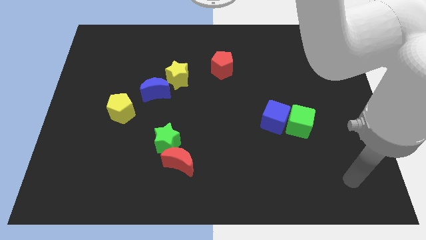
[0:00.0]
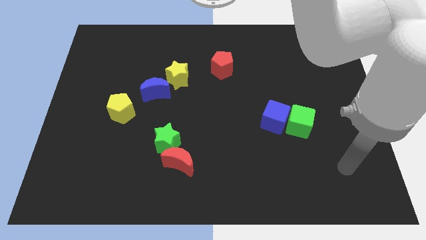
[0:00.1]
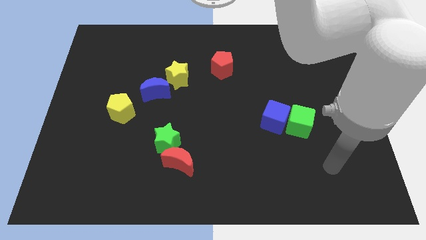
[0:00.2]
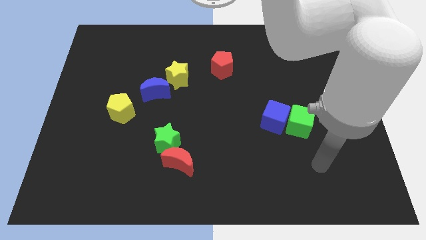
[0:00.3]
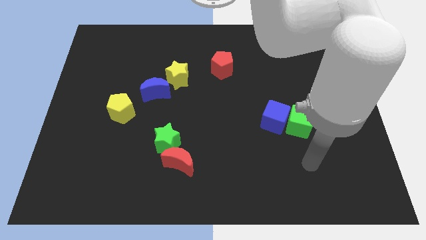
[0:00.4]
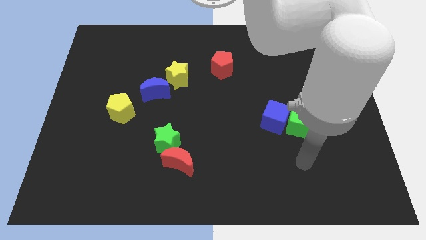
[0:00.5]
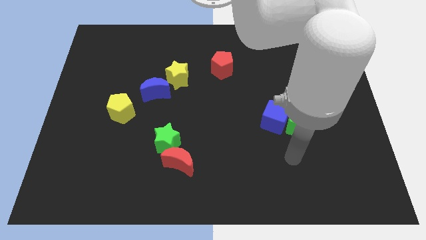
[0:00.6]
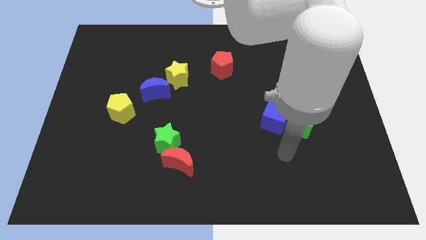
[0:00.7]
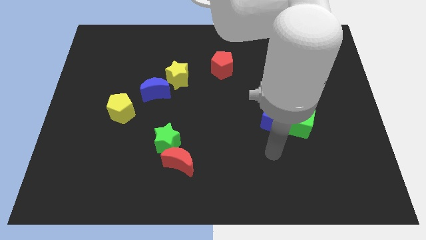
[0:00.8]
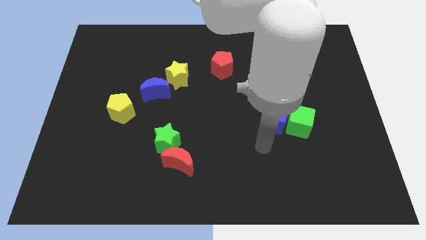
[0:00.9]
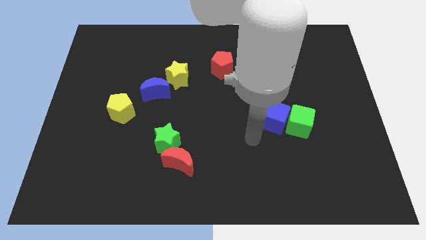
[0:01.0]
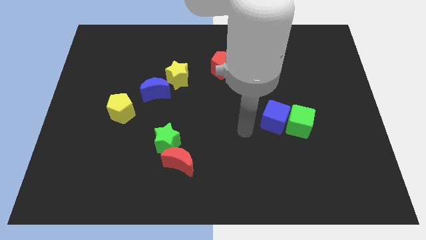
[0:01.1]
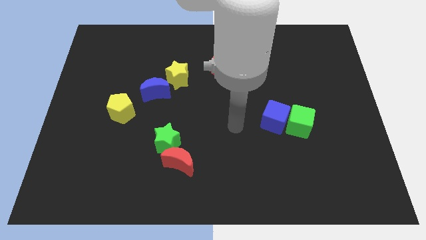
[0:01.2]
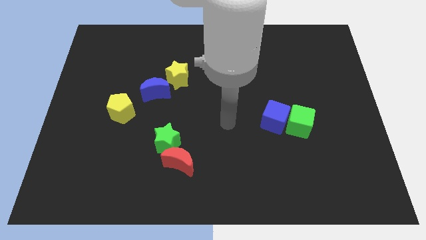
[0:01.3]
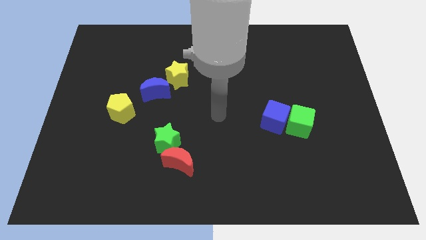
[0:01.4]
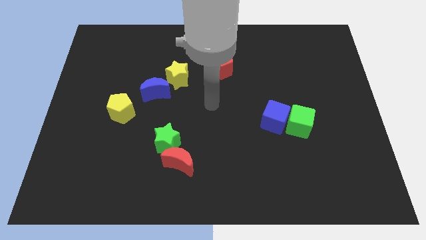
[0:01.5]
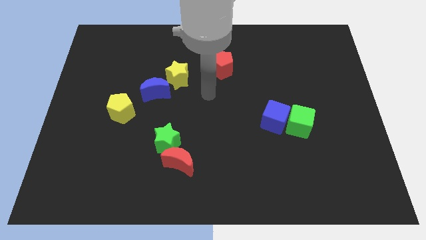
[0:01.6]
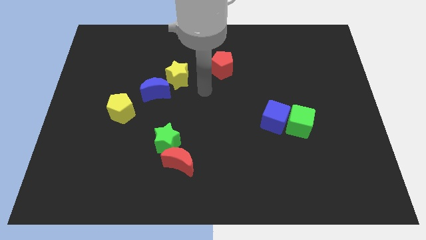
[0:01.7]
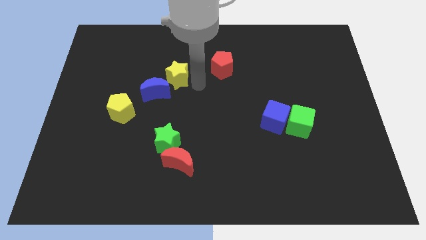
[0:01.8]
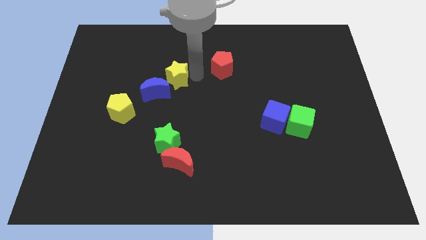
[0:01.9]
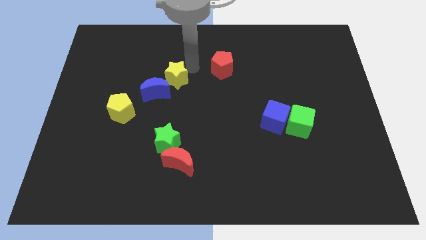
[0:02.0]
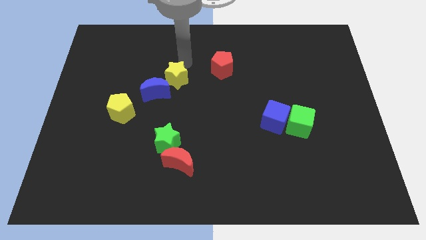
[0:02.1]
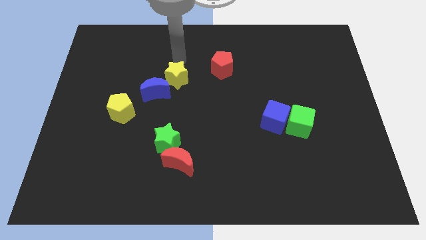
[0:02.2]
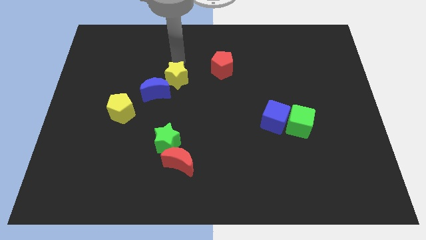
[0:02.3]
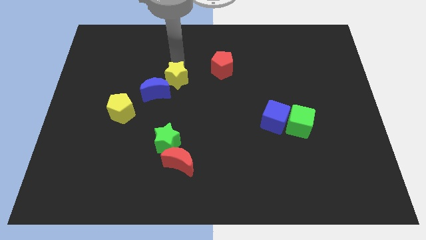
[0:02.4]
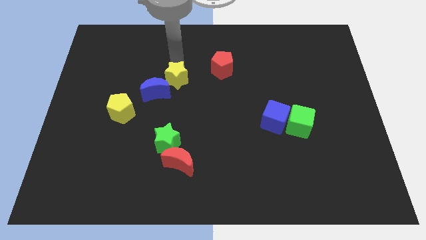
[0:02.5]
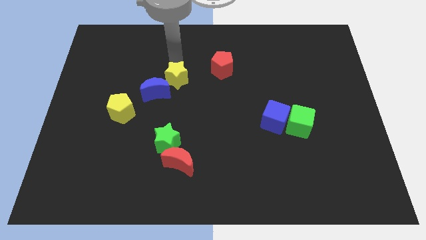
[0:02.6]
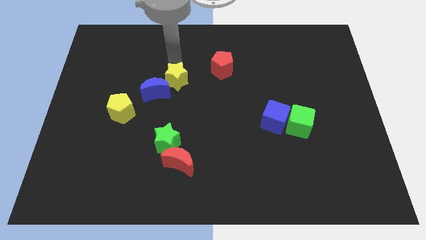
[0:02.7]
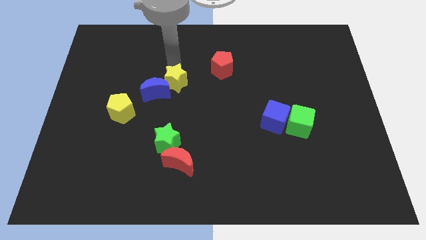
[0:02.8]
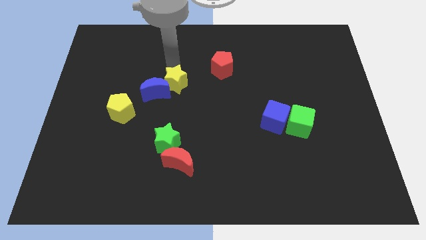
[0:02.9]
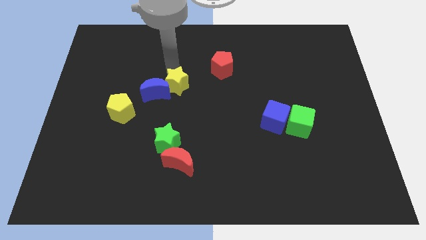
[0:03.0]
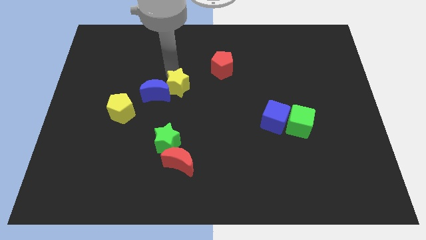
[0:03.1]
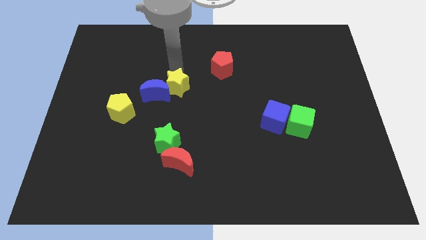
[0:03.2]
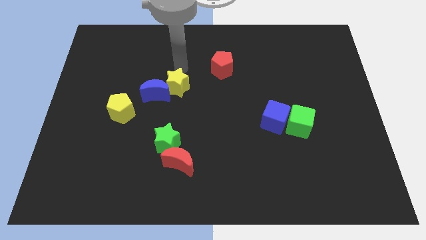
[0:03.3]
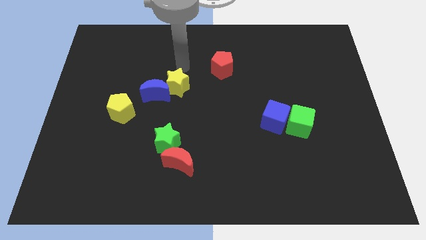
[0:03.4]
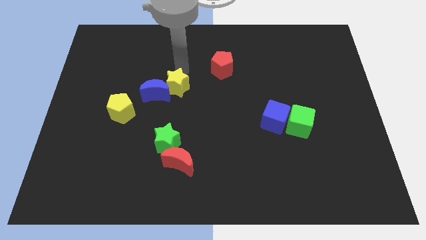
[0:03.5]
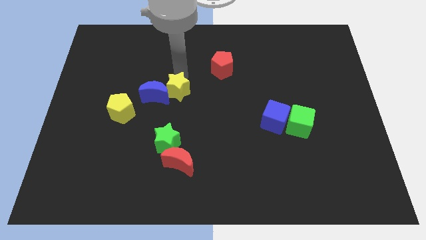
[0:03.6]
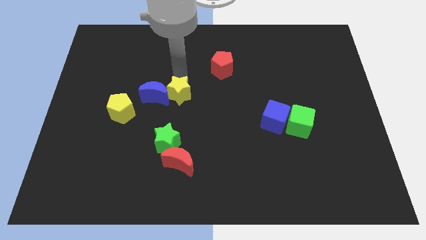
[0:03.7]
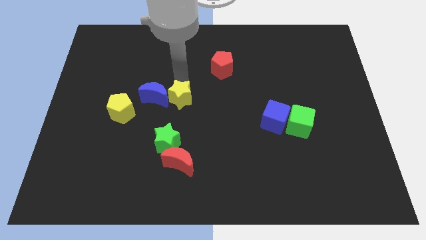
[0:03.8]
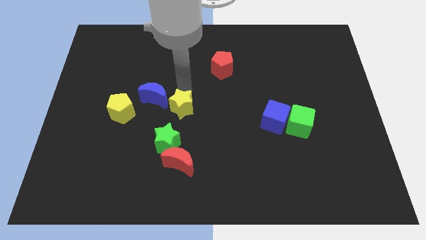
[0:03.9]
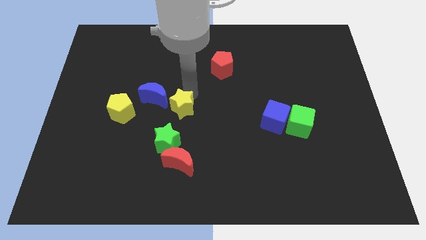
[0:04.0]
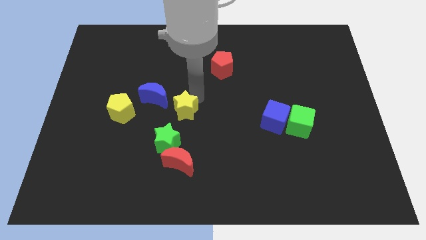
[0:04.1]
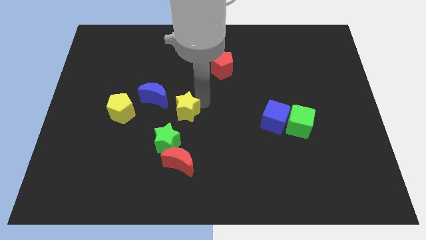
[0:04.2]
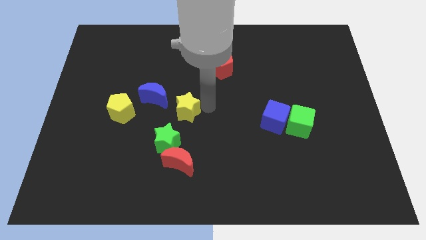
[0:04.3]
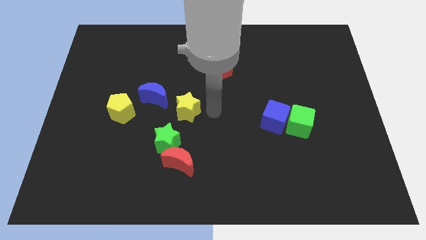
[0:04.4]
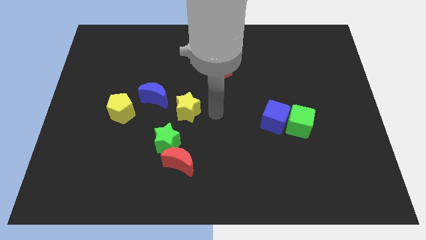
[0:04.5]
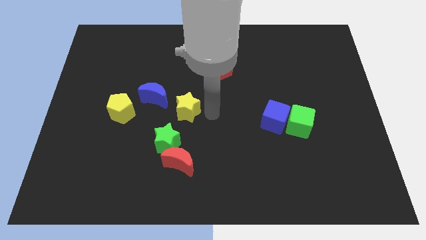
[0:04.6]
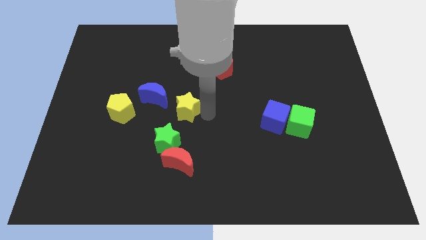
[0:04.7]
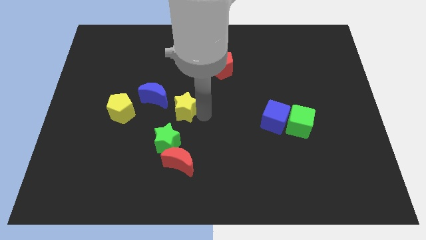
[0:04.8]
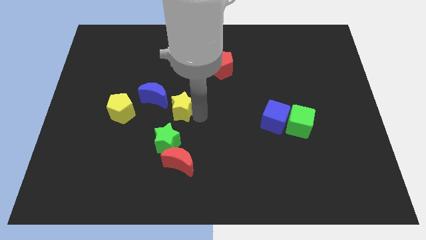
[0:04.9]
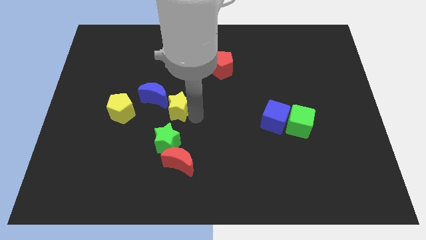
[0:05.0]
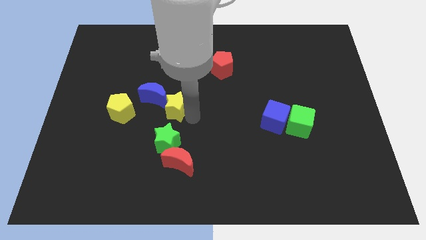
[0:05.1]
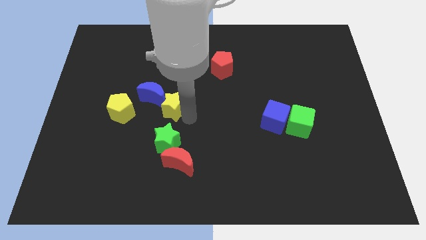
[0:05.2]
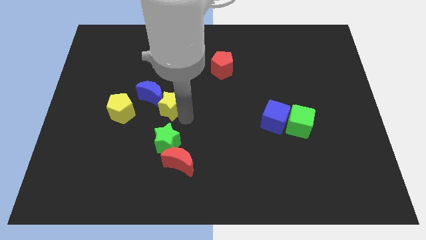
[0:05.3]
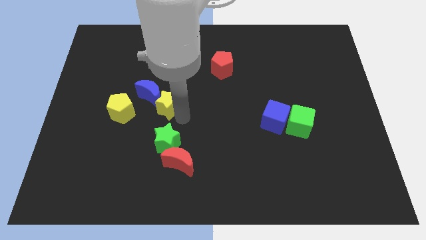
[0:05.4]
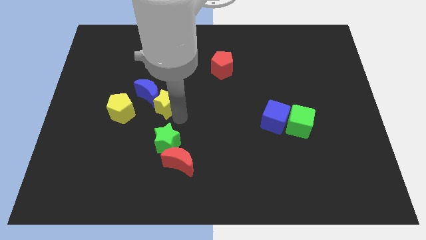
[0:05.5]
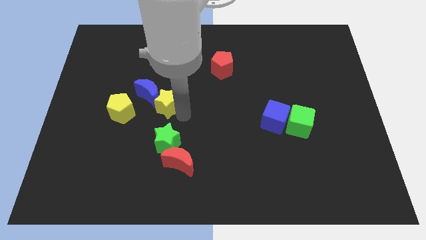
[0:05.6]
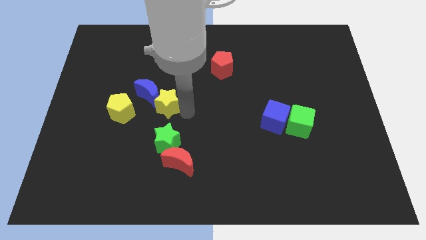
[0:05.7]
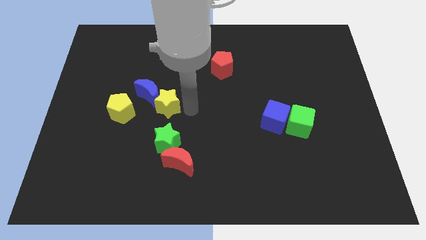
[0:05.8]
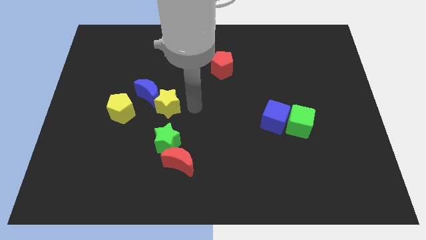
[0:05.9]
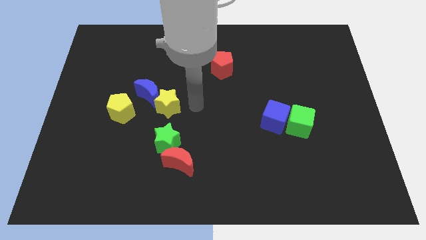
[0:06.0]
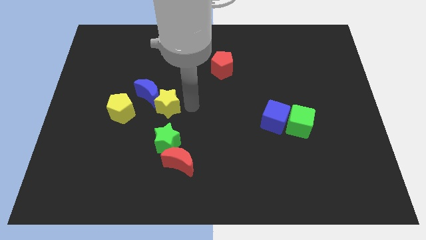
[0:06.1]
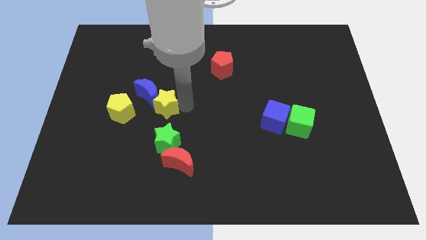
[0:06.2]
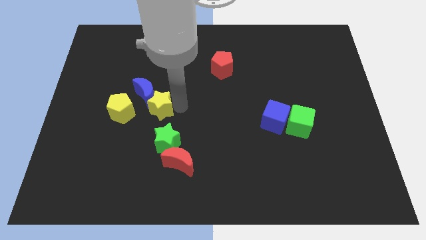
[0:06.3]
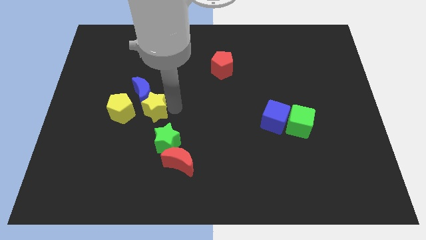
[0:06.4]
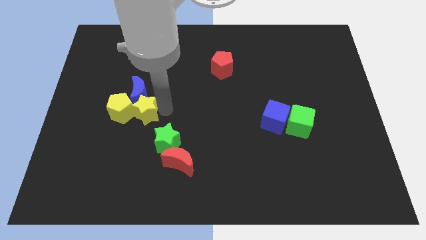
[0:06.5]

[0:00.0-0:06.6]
push the yellow star next to the yellow pentagon
